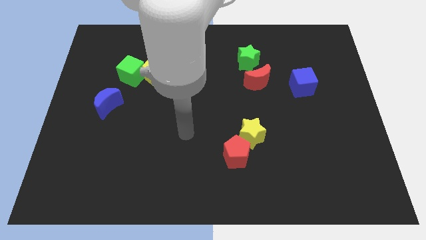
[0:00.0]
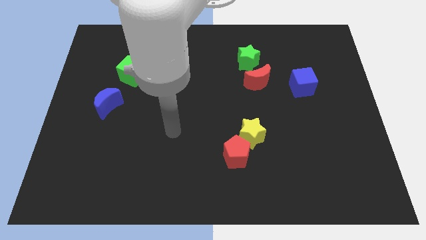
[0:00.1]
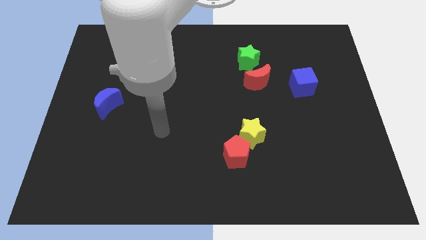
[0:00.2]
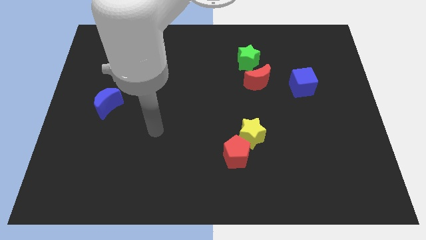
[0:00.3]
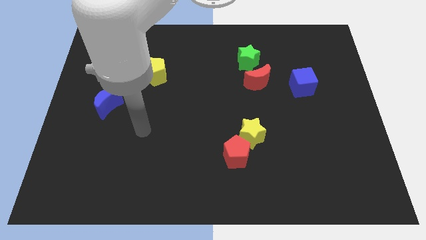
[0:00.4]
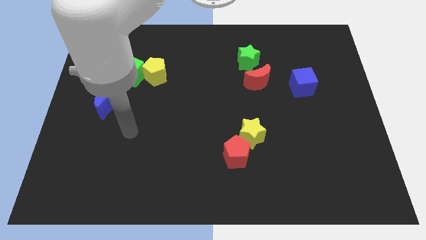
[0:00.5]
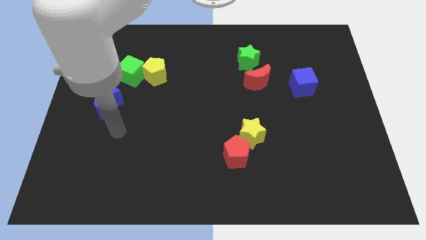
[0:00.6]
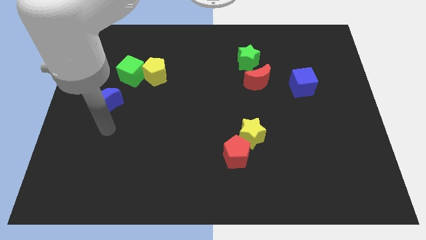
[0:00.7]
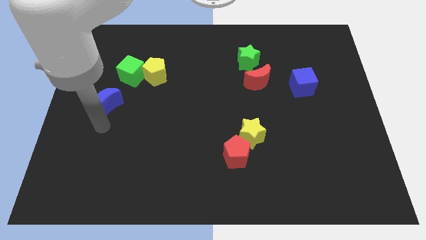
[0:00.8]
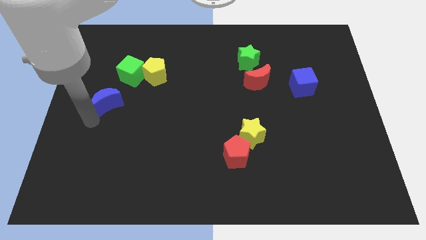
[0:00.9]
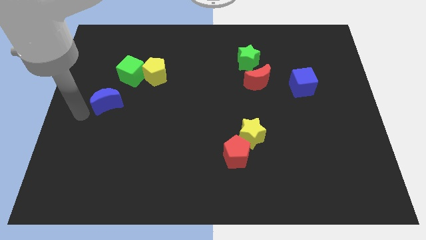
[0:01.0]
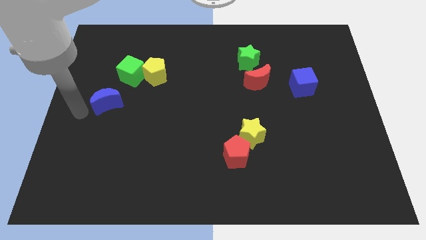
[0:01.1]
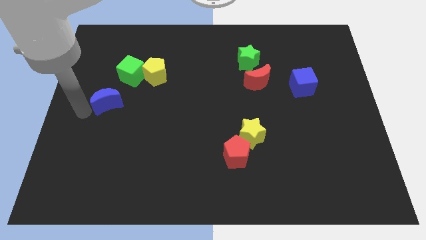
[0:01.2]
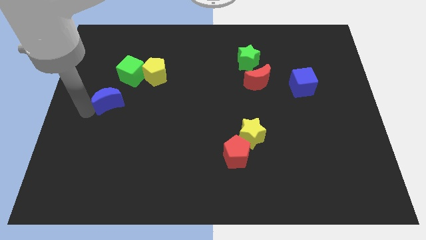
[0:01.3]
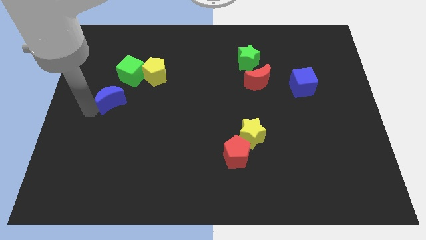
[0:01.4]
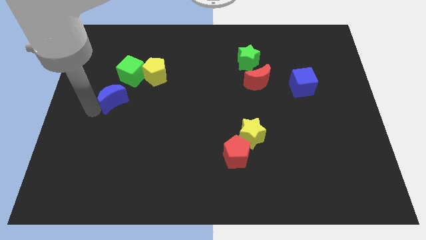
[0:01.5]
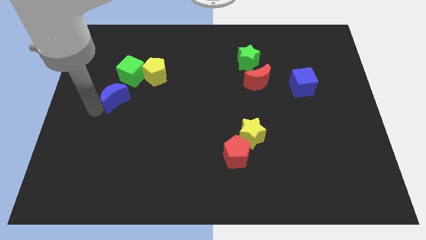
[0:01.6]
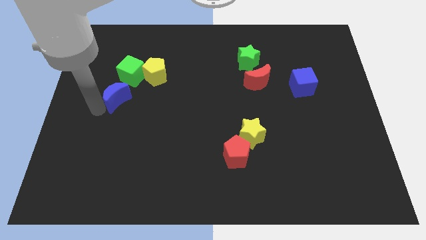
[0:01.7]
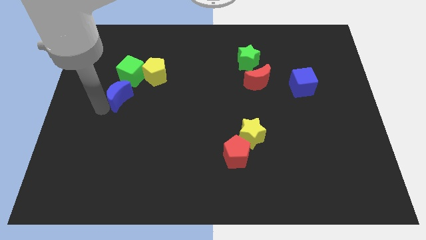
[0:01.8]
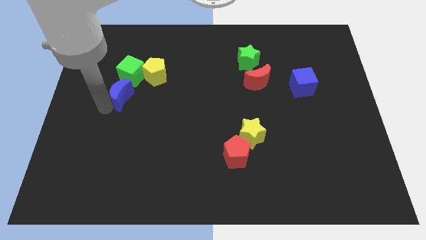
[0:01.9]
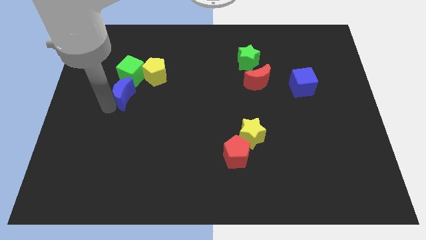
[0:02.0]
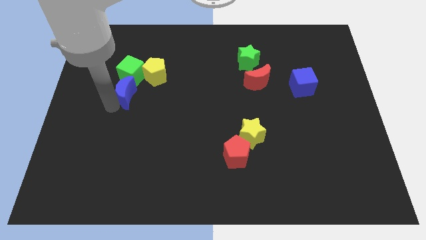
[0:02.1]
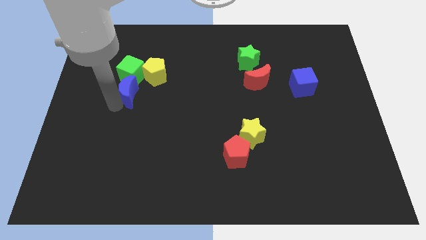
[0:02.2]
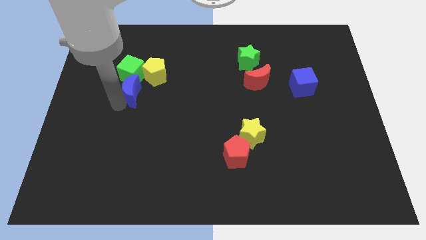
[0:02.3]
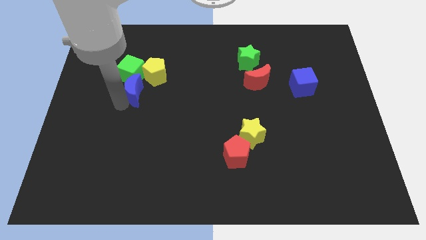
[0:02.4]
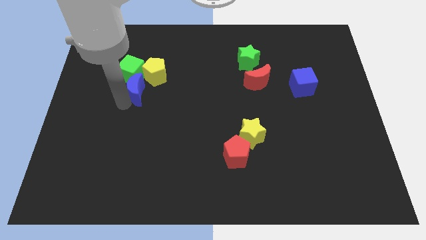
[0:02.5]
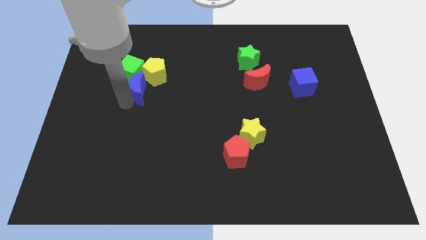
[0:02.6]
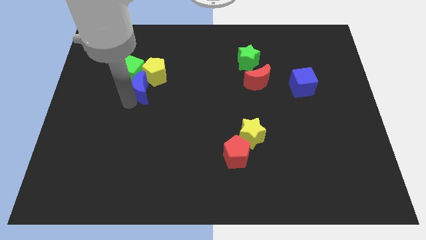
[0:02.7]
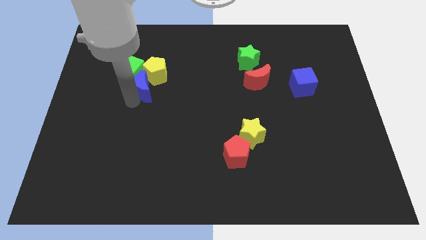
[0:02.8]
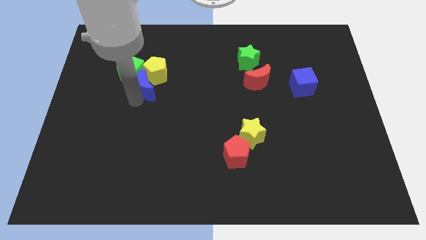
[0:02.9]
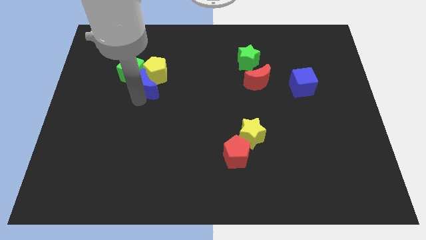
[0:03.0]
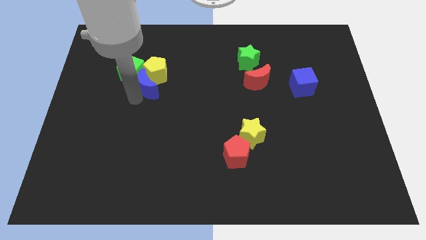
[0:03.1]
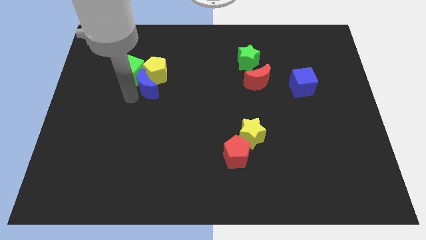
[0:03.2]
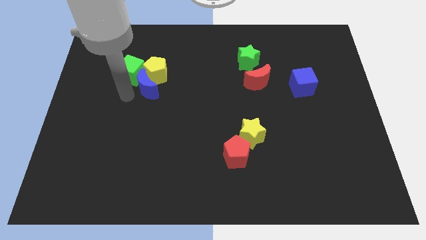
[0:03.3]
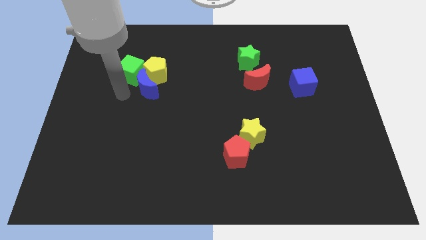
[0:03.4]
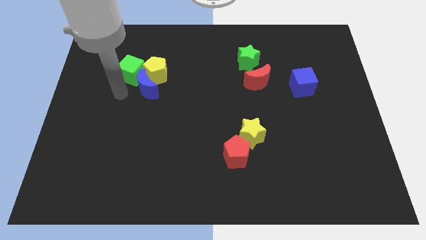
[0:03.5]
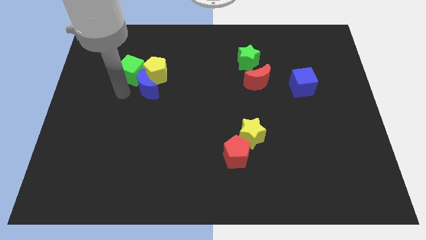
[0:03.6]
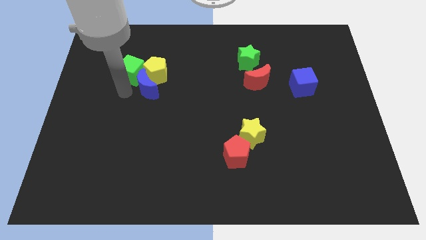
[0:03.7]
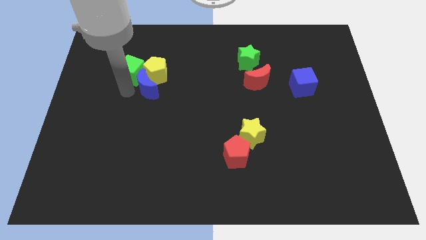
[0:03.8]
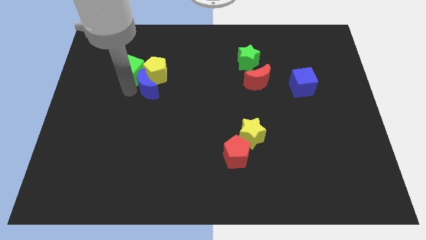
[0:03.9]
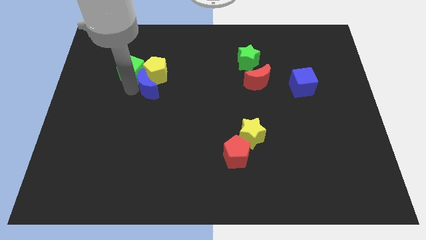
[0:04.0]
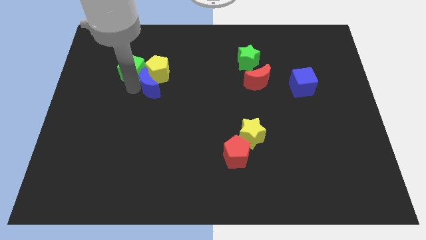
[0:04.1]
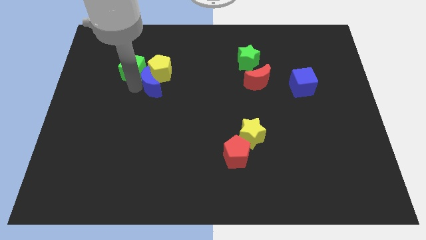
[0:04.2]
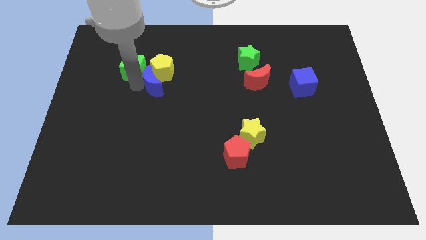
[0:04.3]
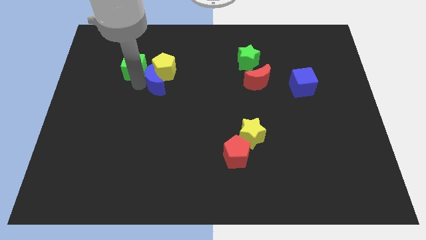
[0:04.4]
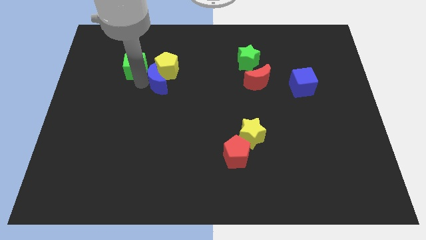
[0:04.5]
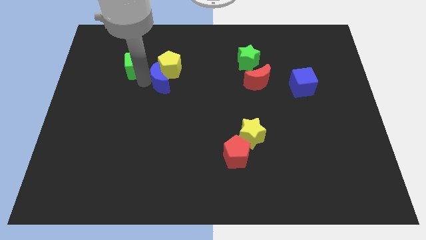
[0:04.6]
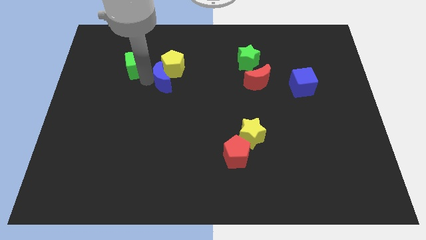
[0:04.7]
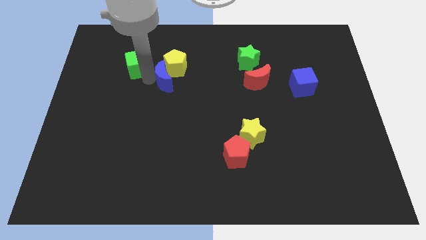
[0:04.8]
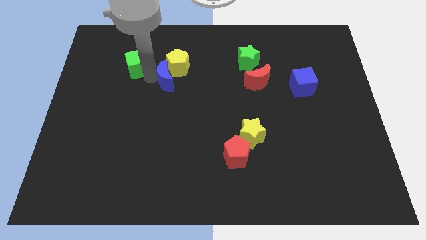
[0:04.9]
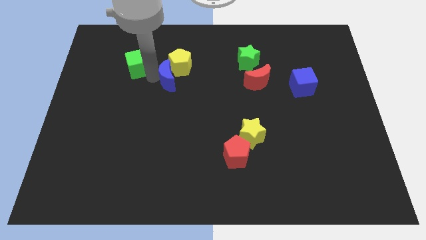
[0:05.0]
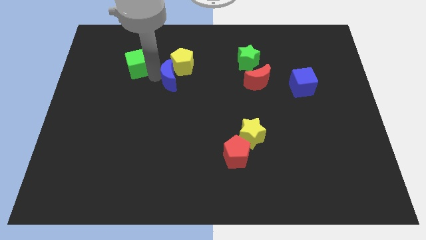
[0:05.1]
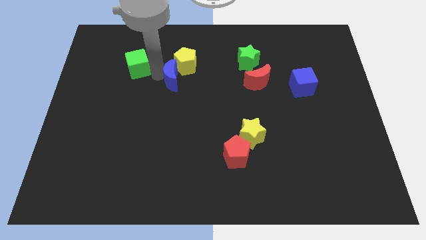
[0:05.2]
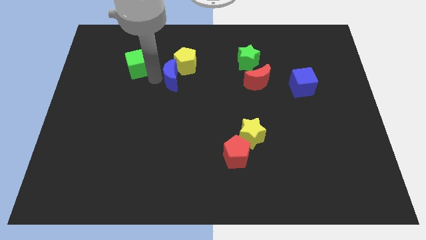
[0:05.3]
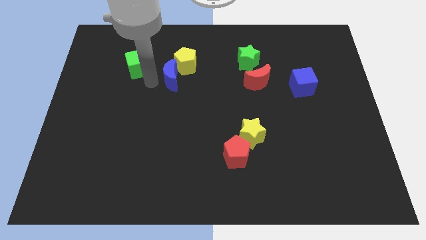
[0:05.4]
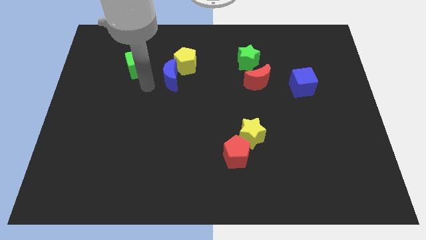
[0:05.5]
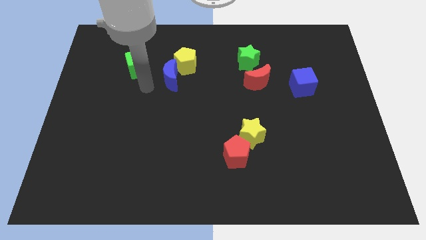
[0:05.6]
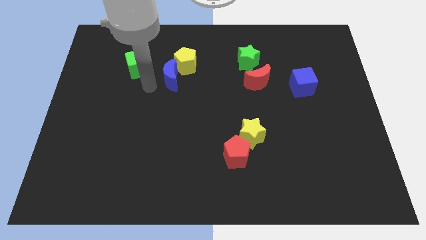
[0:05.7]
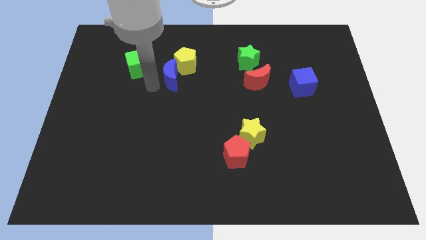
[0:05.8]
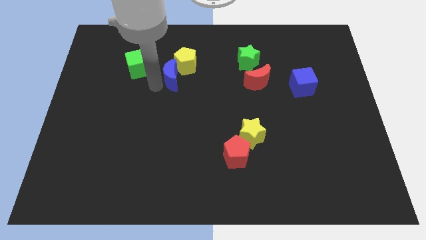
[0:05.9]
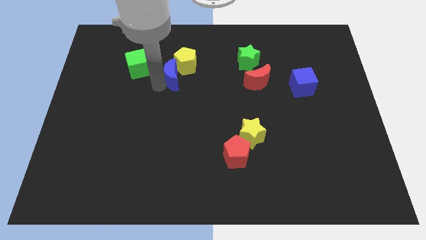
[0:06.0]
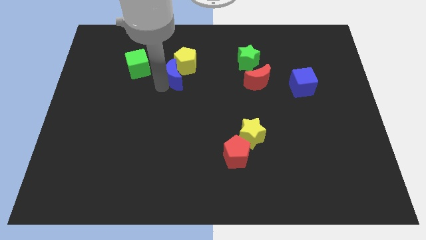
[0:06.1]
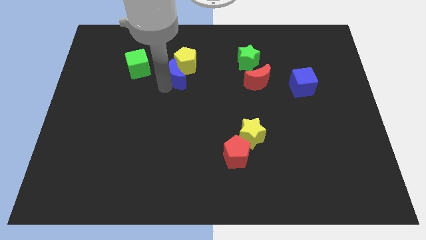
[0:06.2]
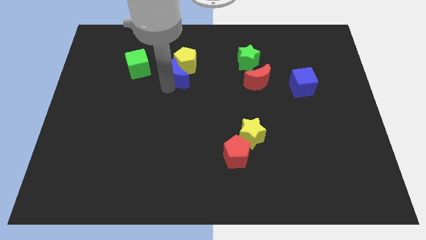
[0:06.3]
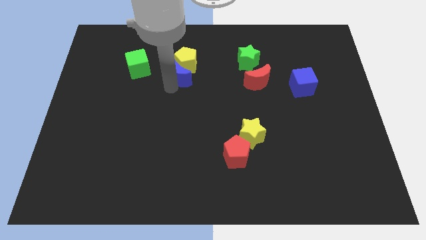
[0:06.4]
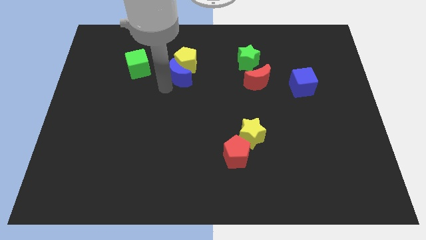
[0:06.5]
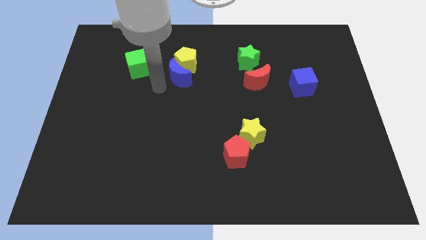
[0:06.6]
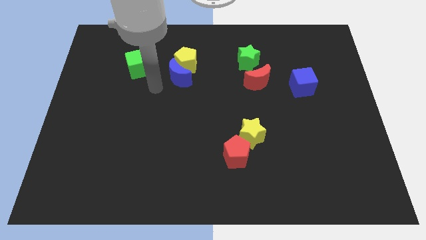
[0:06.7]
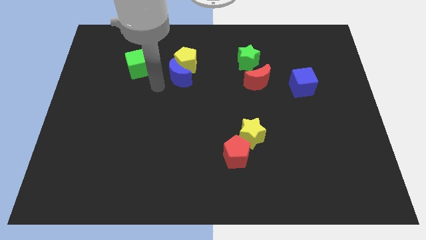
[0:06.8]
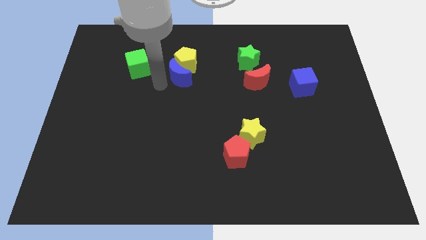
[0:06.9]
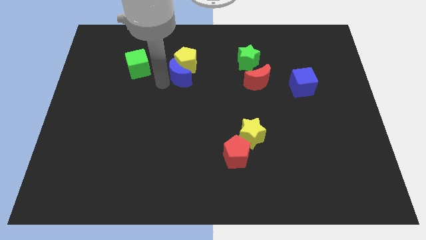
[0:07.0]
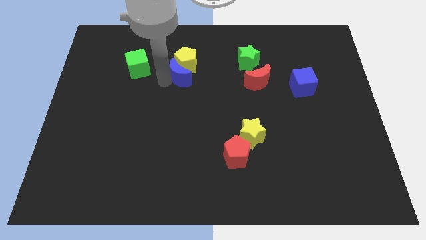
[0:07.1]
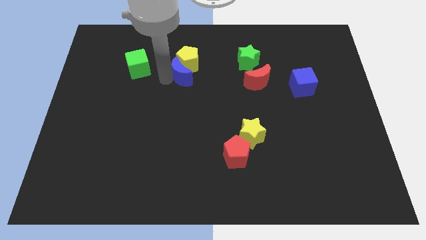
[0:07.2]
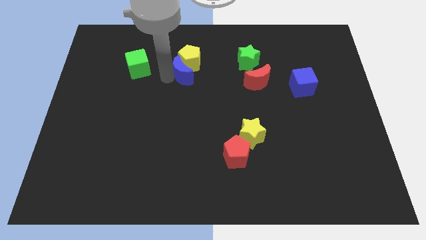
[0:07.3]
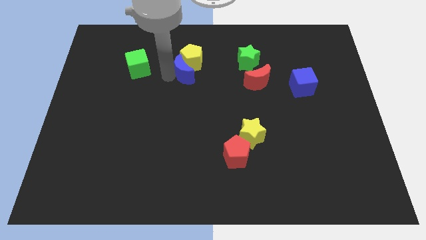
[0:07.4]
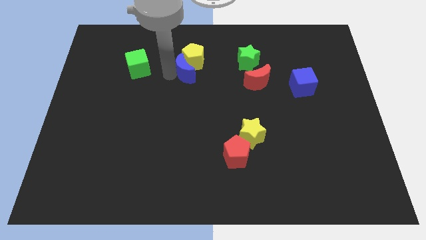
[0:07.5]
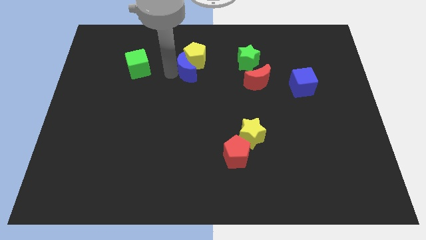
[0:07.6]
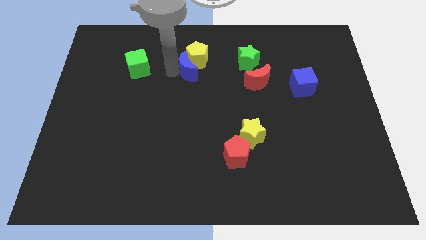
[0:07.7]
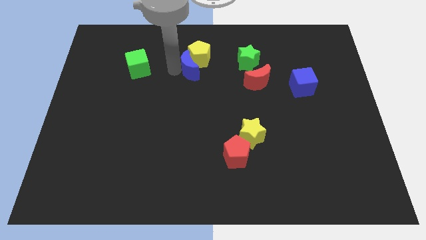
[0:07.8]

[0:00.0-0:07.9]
push the blue moon just left of the green star
